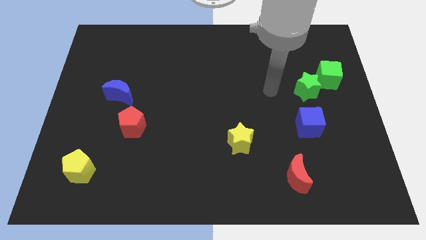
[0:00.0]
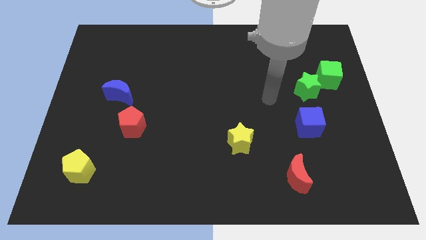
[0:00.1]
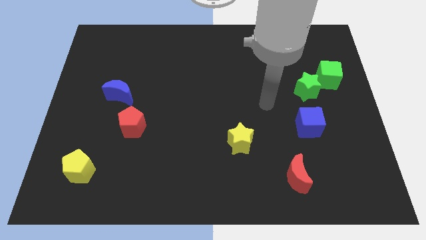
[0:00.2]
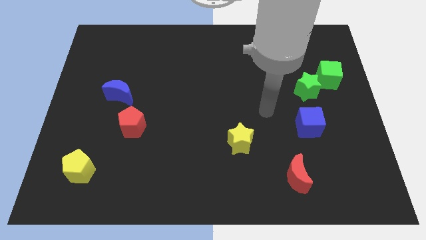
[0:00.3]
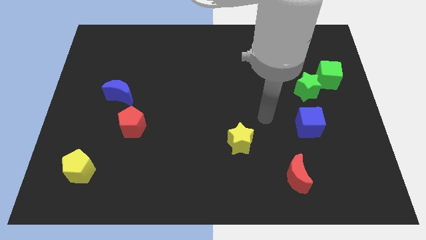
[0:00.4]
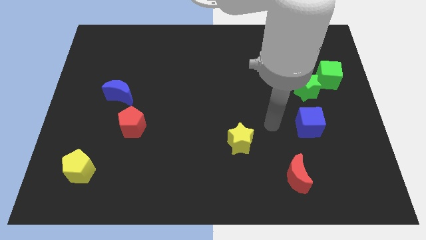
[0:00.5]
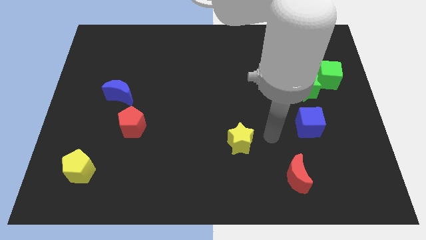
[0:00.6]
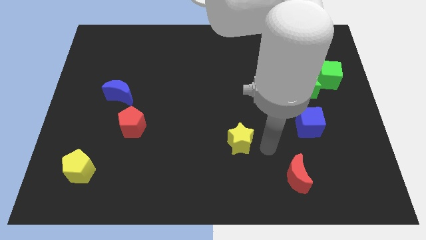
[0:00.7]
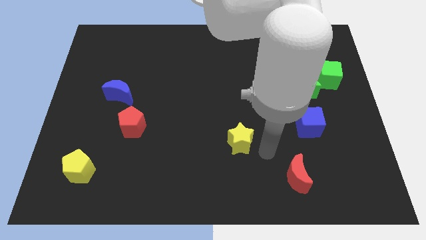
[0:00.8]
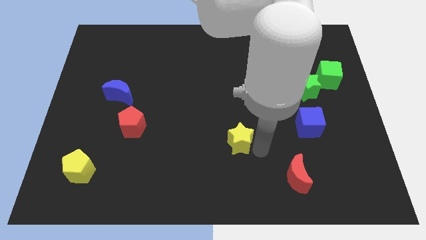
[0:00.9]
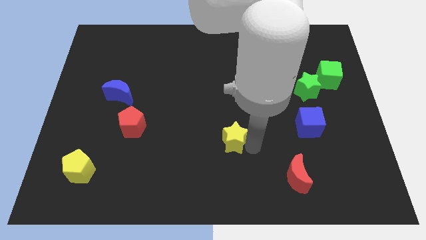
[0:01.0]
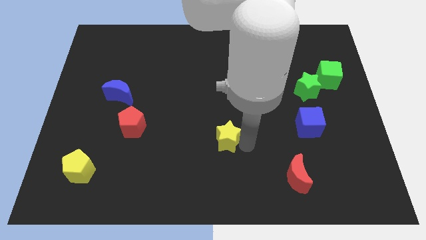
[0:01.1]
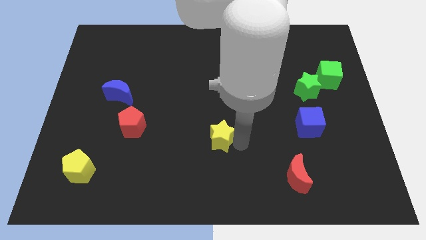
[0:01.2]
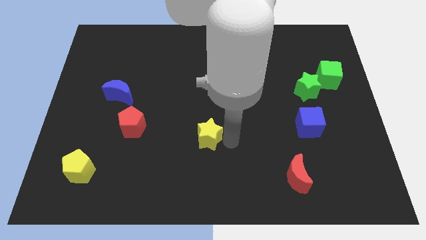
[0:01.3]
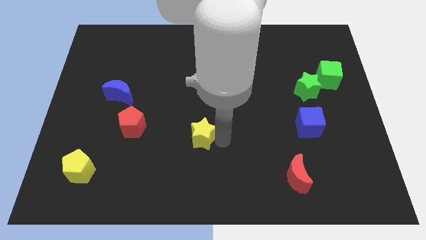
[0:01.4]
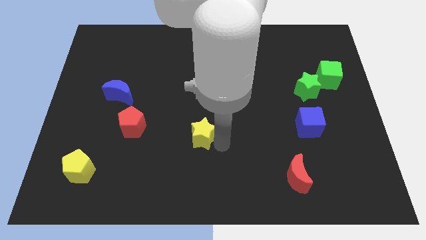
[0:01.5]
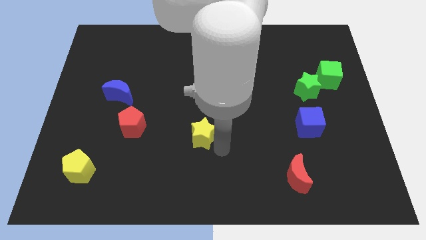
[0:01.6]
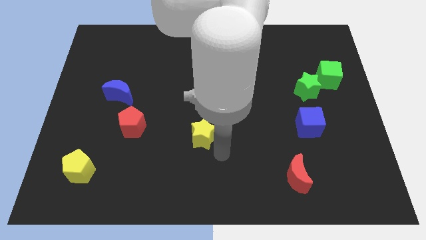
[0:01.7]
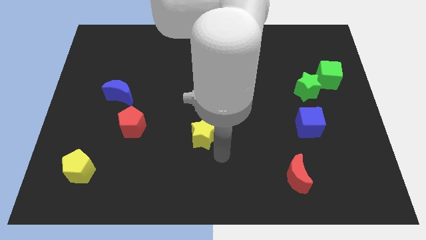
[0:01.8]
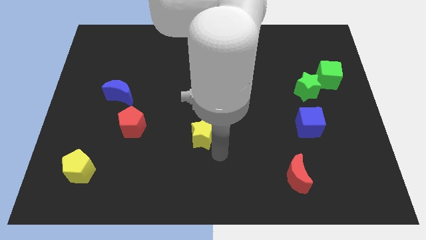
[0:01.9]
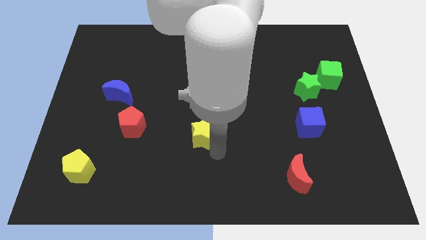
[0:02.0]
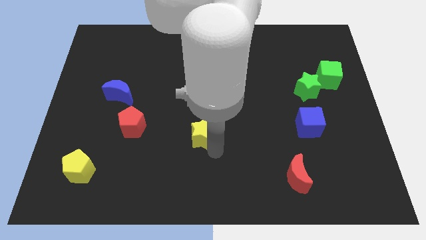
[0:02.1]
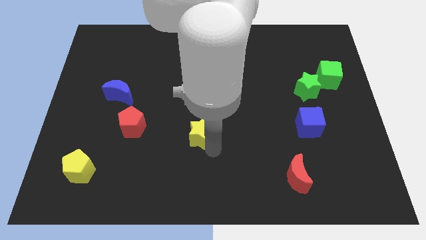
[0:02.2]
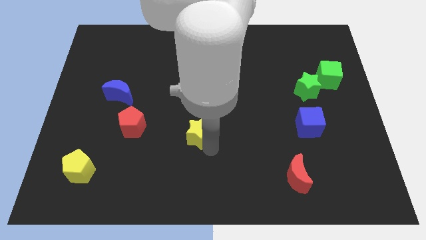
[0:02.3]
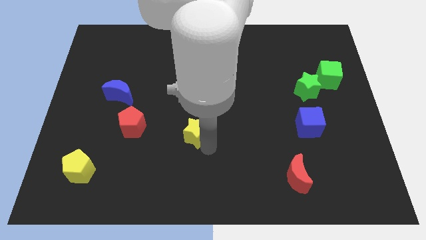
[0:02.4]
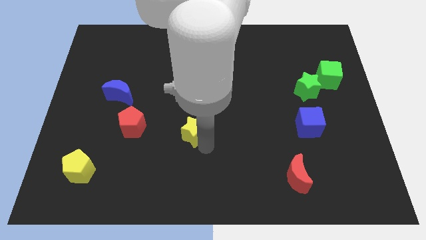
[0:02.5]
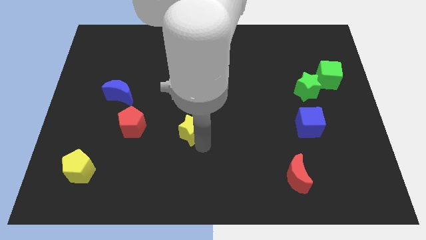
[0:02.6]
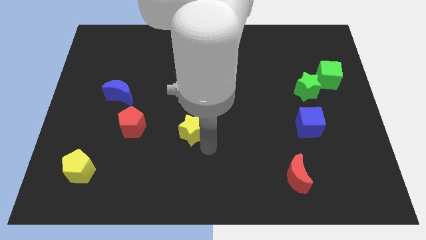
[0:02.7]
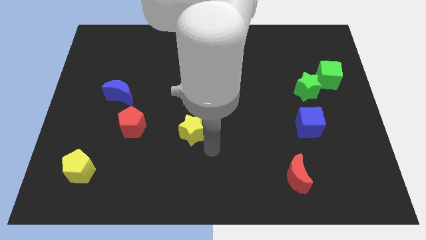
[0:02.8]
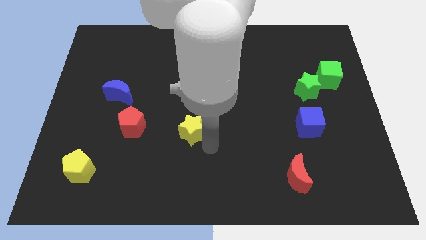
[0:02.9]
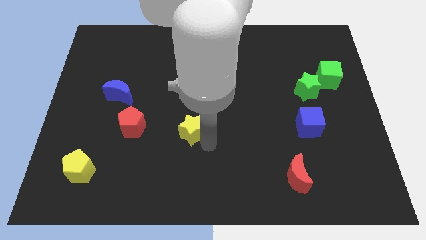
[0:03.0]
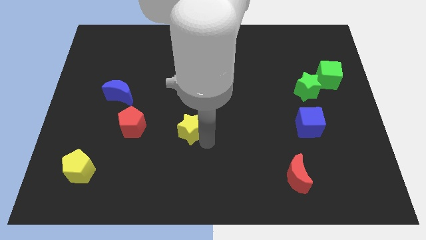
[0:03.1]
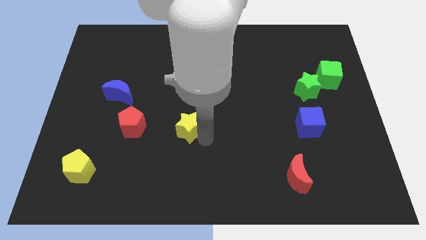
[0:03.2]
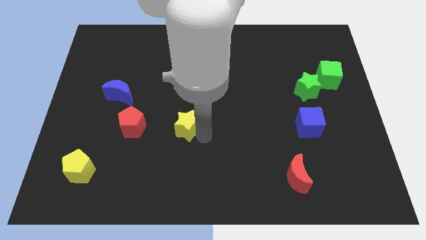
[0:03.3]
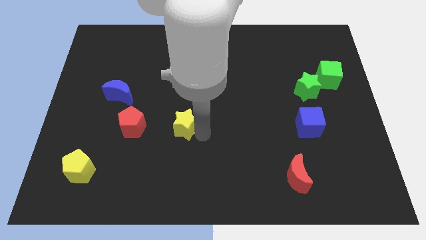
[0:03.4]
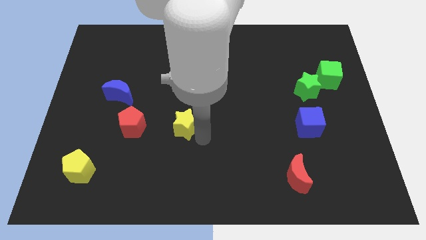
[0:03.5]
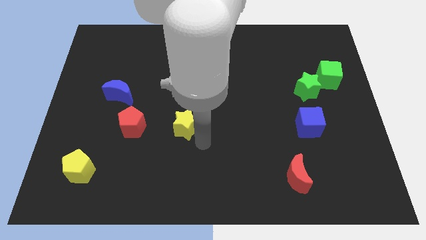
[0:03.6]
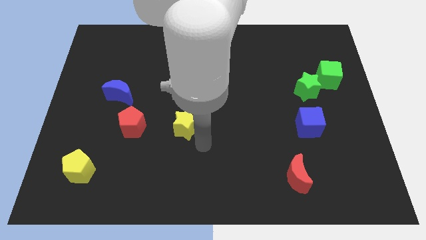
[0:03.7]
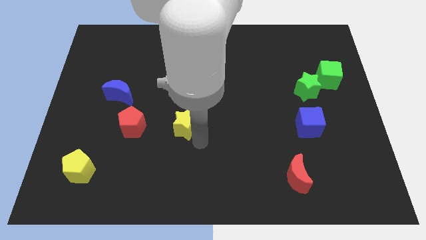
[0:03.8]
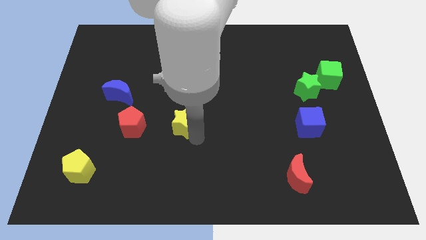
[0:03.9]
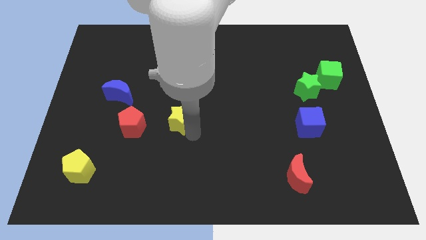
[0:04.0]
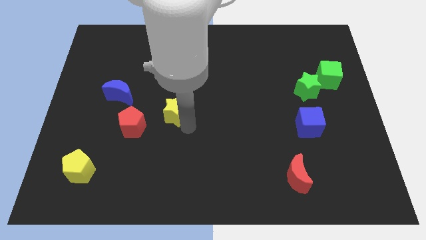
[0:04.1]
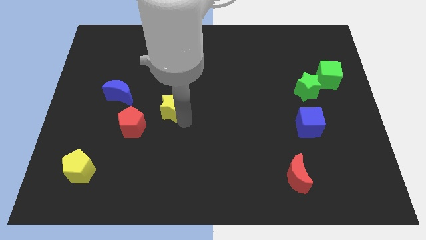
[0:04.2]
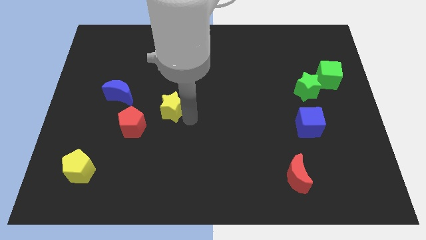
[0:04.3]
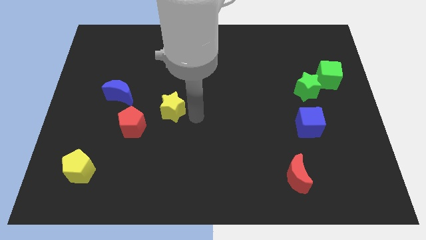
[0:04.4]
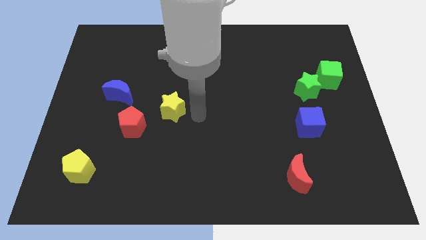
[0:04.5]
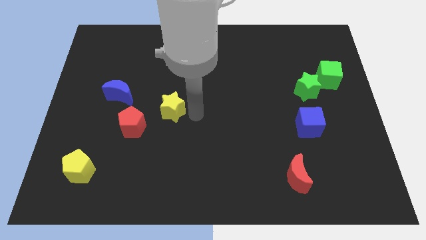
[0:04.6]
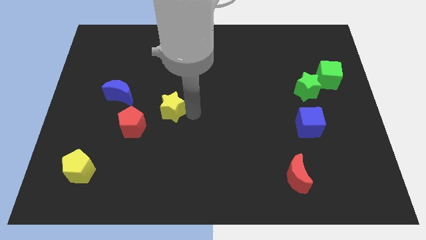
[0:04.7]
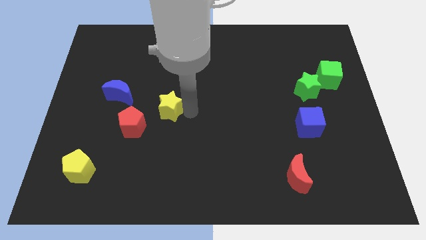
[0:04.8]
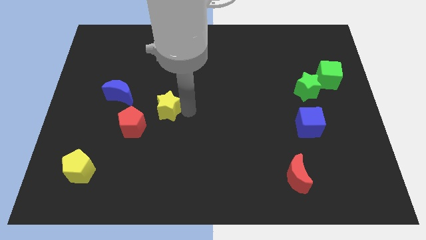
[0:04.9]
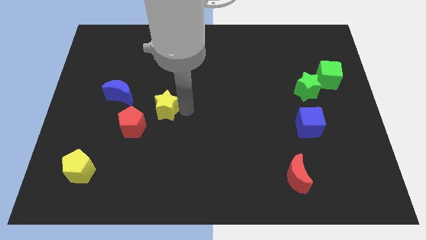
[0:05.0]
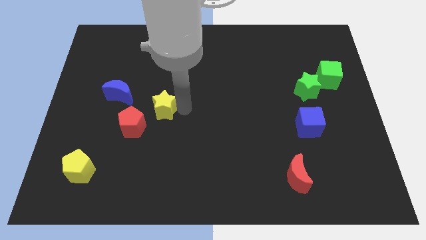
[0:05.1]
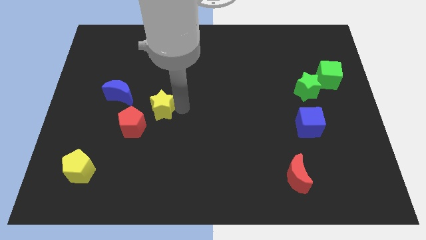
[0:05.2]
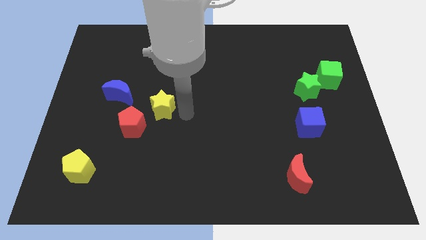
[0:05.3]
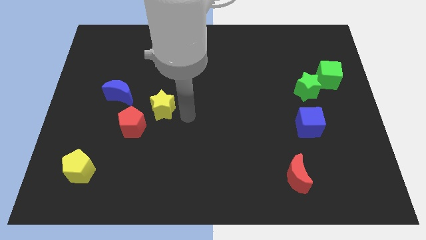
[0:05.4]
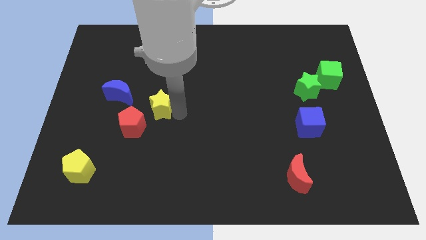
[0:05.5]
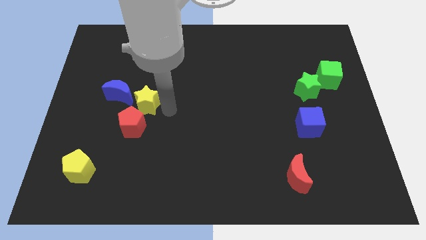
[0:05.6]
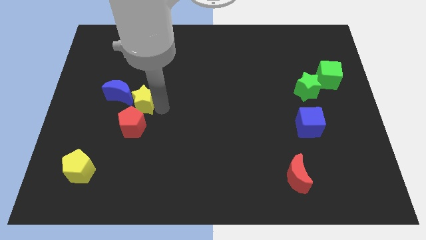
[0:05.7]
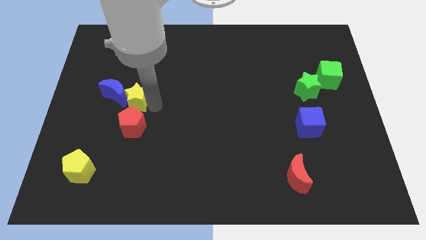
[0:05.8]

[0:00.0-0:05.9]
move the yellow star towards the blue moon

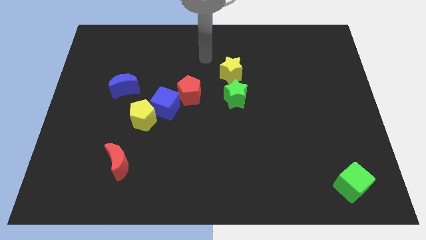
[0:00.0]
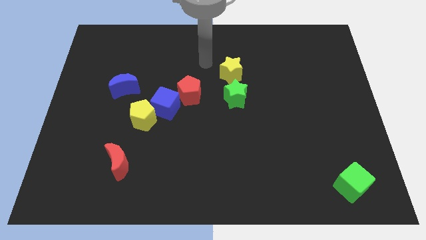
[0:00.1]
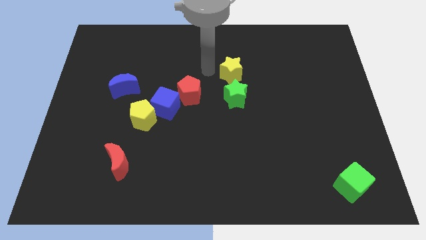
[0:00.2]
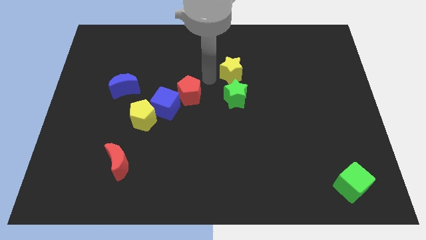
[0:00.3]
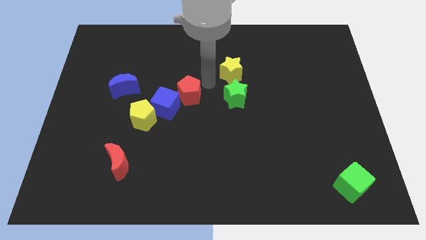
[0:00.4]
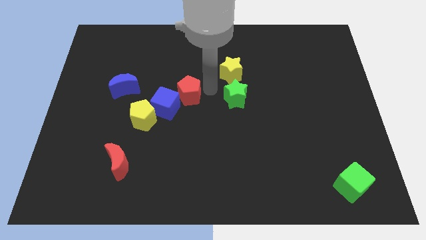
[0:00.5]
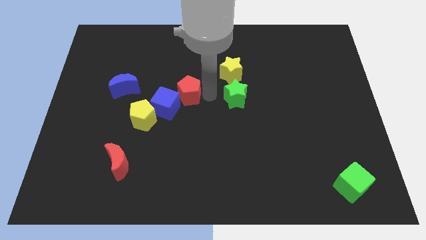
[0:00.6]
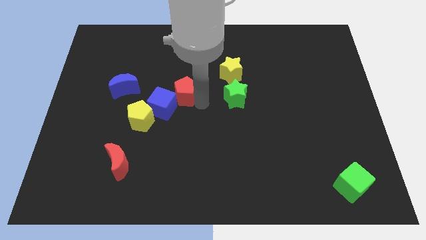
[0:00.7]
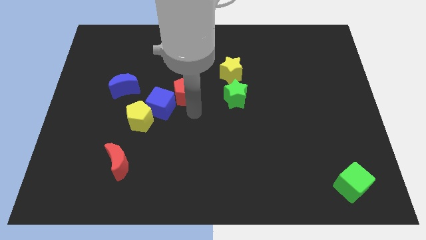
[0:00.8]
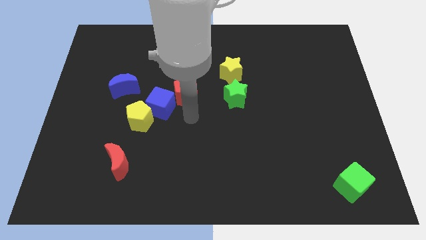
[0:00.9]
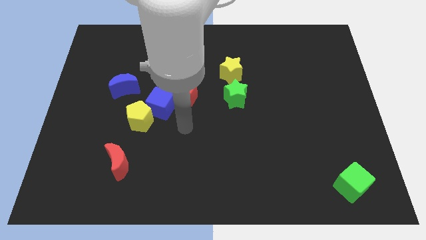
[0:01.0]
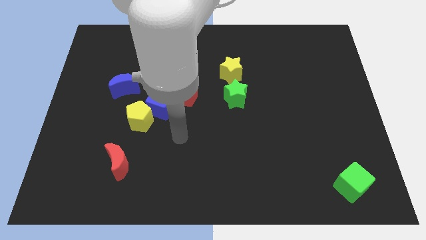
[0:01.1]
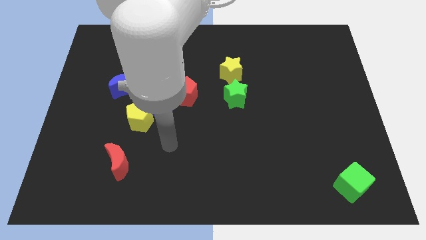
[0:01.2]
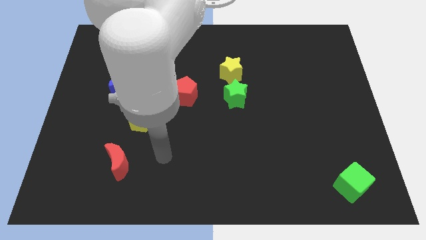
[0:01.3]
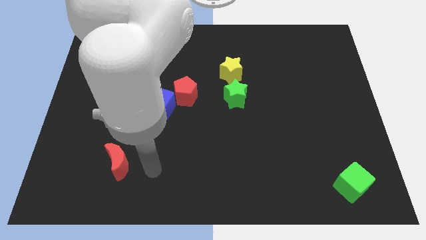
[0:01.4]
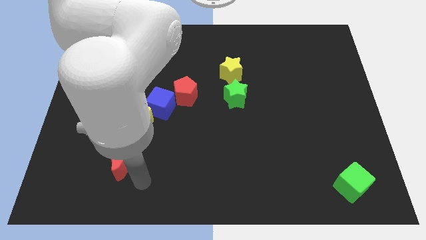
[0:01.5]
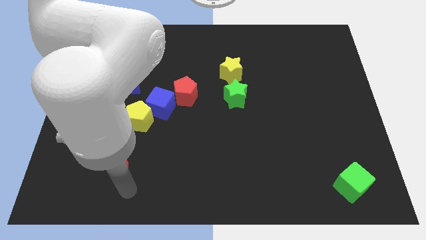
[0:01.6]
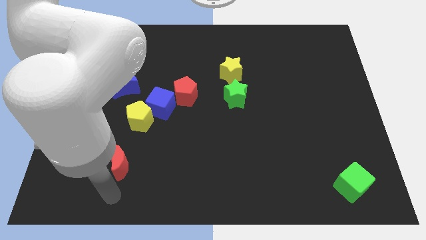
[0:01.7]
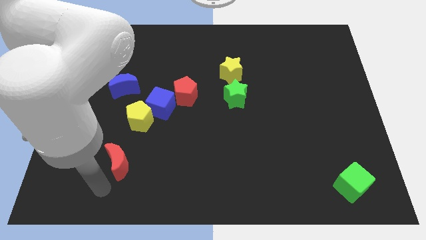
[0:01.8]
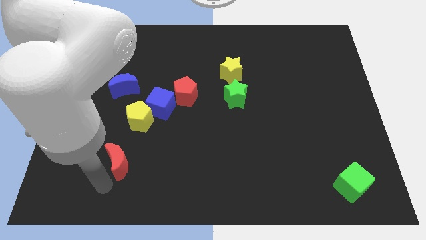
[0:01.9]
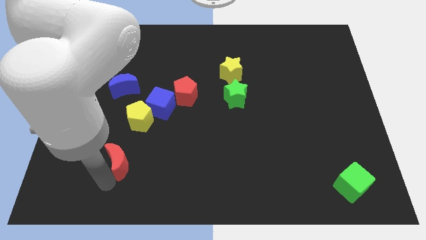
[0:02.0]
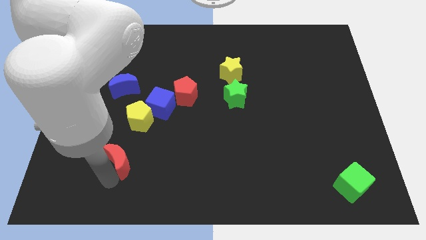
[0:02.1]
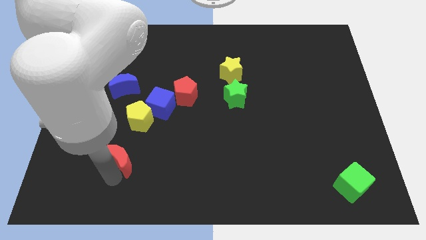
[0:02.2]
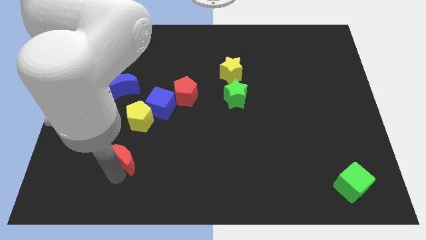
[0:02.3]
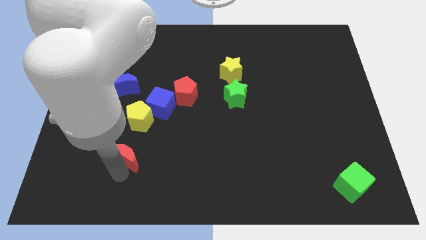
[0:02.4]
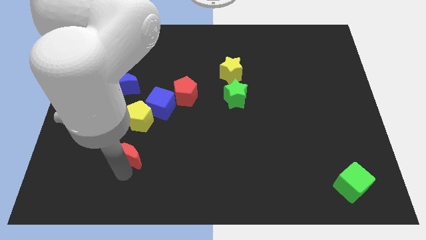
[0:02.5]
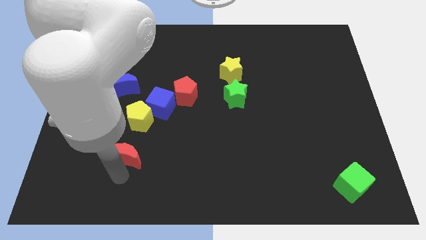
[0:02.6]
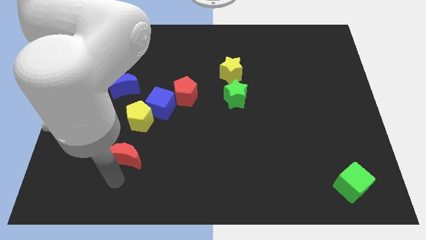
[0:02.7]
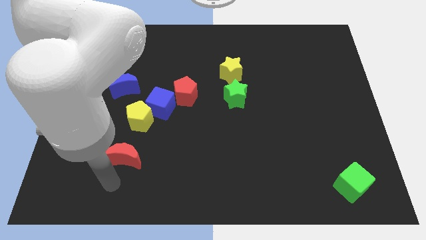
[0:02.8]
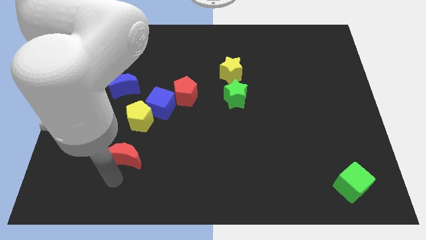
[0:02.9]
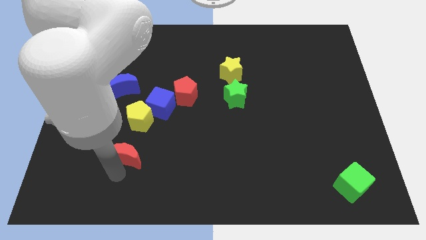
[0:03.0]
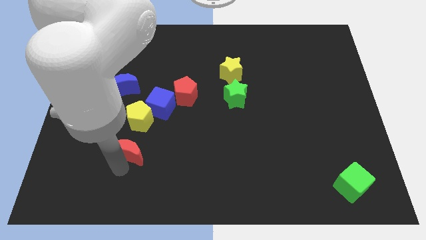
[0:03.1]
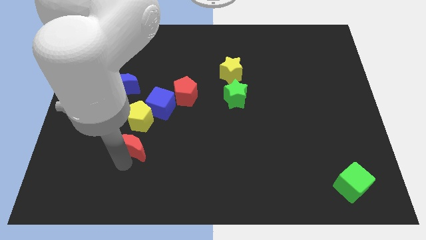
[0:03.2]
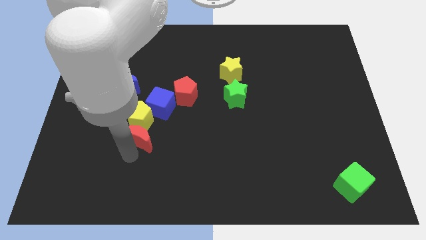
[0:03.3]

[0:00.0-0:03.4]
put the red moon towards the yellow pentagon
